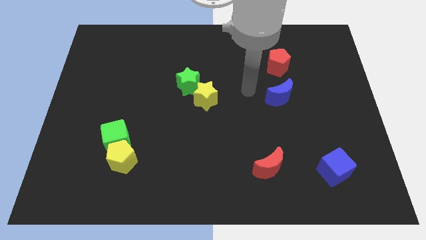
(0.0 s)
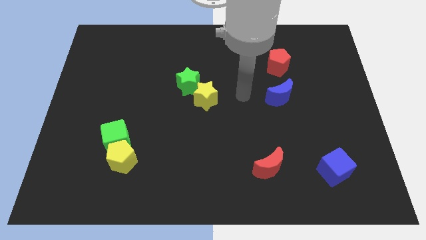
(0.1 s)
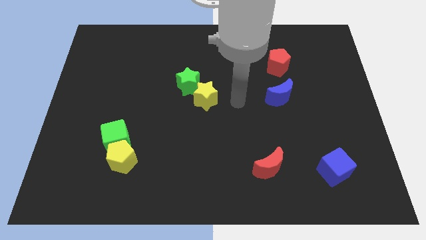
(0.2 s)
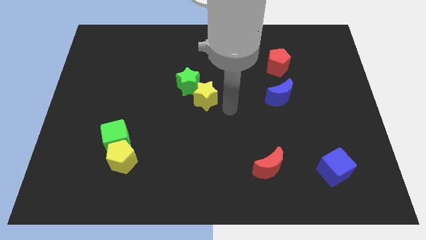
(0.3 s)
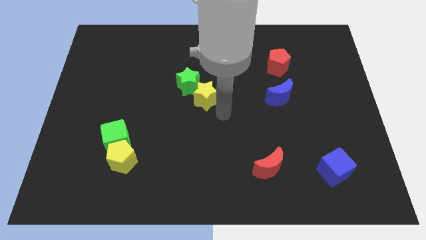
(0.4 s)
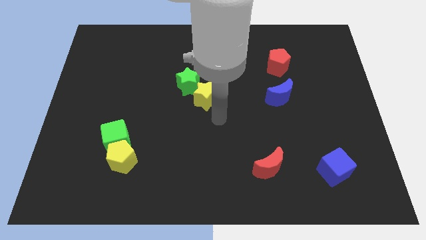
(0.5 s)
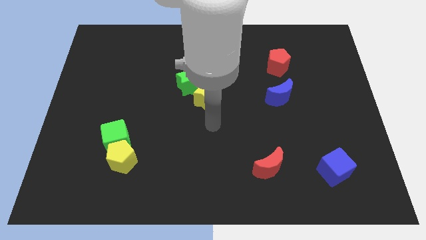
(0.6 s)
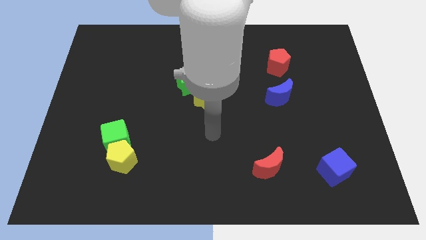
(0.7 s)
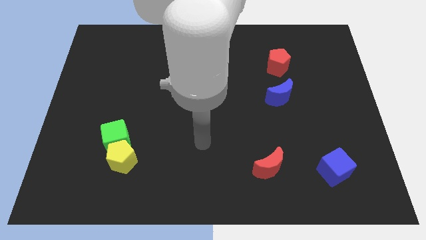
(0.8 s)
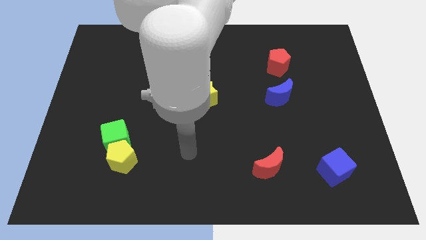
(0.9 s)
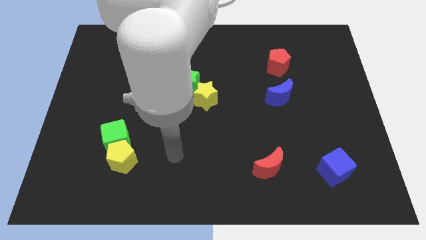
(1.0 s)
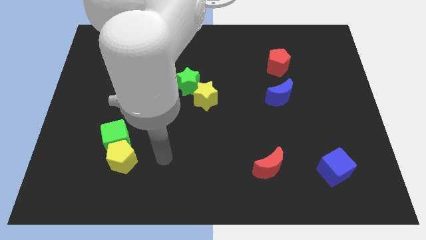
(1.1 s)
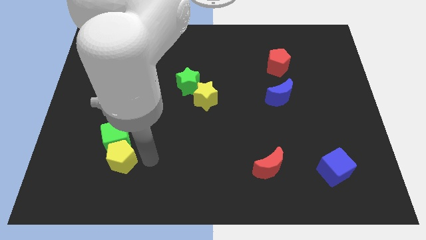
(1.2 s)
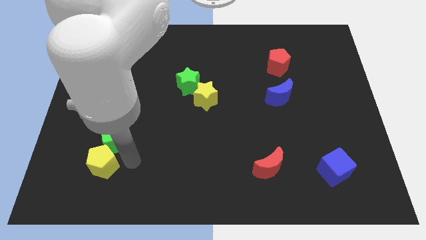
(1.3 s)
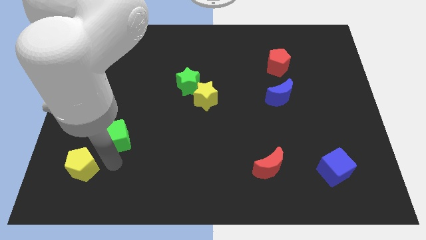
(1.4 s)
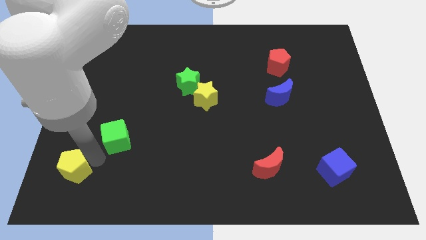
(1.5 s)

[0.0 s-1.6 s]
pull the green cube apart from the yellow pentagon

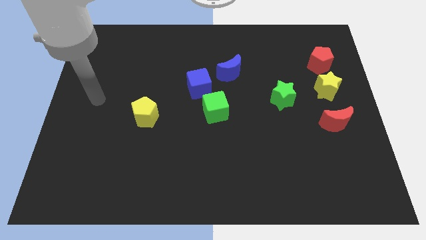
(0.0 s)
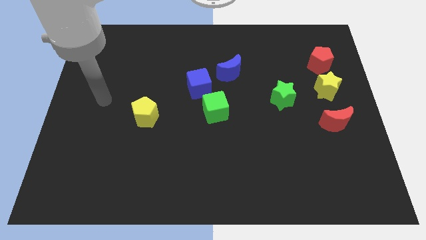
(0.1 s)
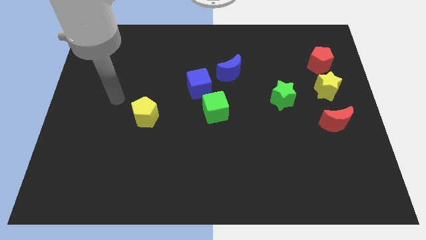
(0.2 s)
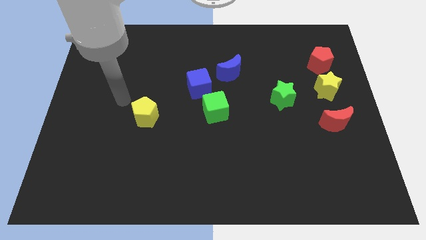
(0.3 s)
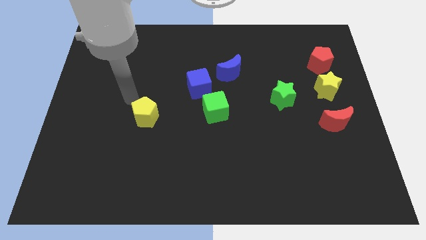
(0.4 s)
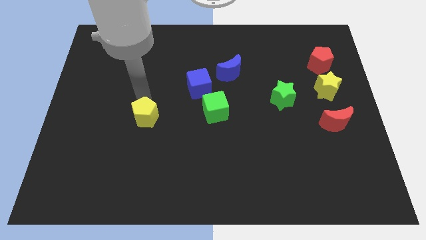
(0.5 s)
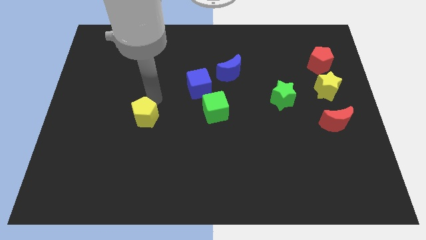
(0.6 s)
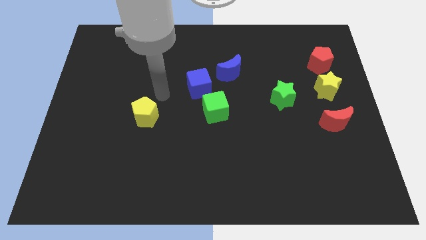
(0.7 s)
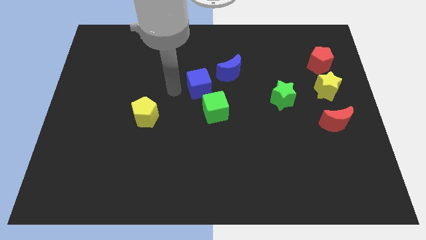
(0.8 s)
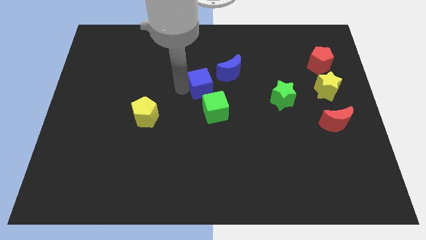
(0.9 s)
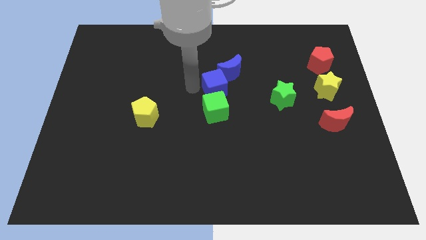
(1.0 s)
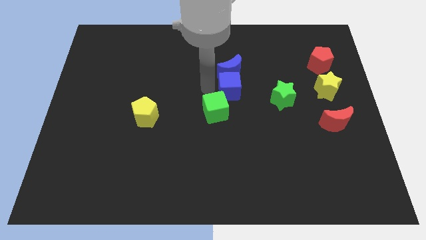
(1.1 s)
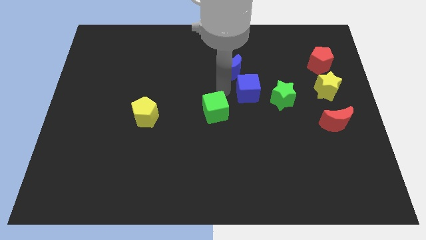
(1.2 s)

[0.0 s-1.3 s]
separate the green cube from the blue cube

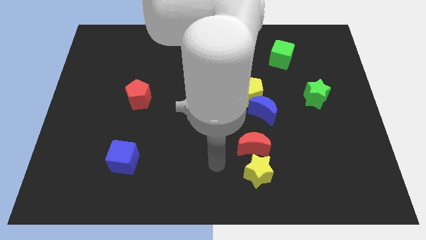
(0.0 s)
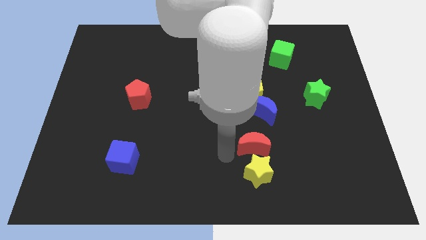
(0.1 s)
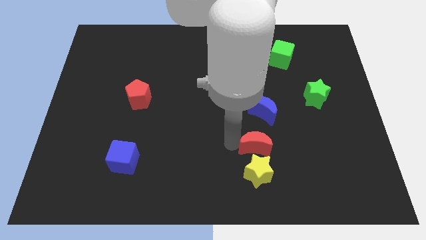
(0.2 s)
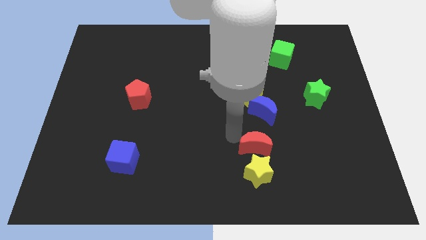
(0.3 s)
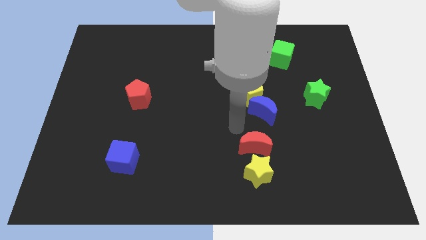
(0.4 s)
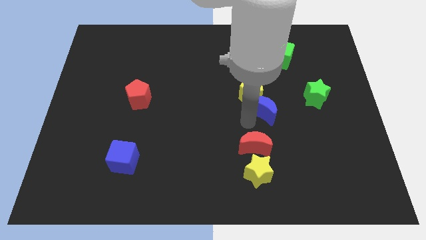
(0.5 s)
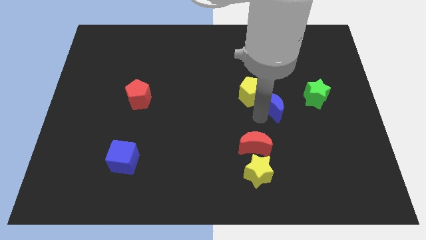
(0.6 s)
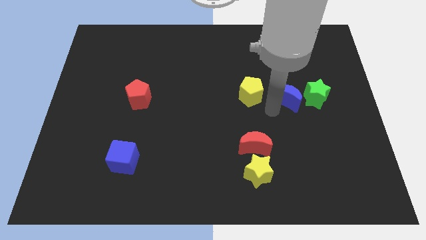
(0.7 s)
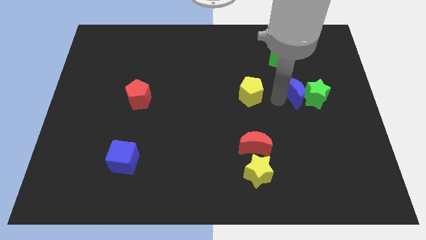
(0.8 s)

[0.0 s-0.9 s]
separate the yellow pentagon from the blue moon

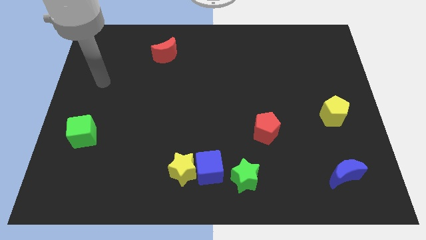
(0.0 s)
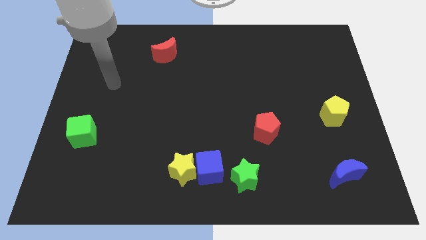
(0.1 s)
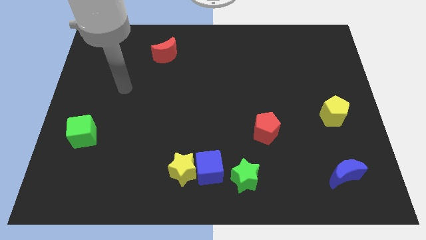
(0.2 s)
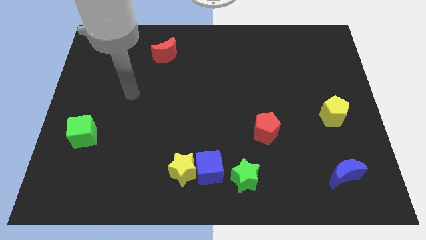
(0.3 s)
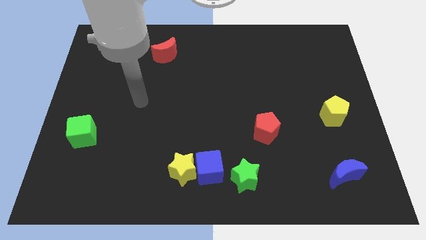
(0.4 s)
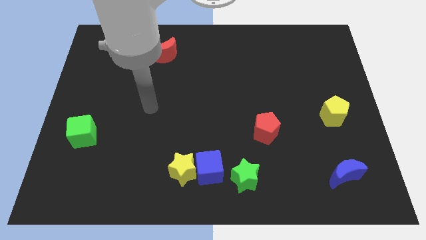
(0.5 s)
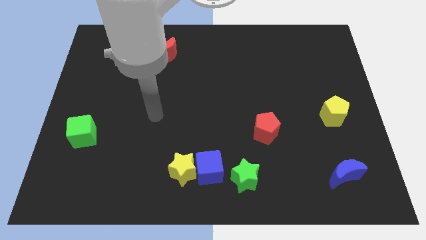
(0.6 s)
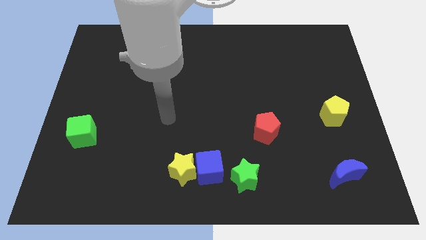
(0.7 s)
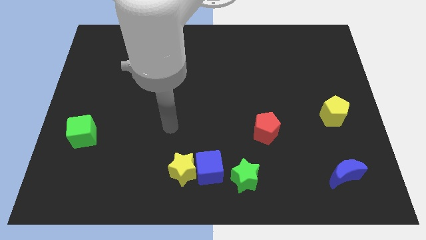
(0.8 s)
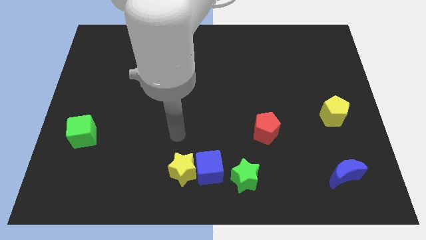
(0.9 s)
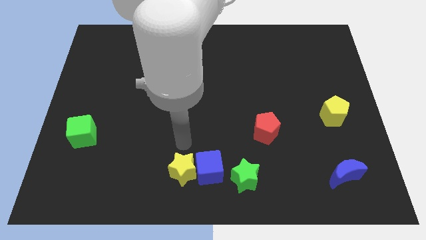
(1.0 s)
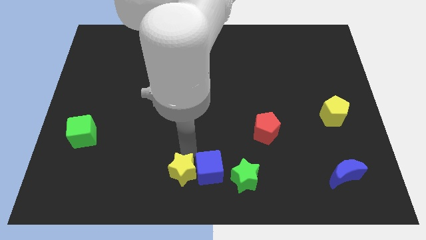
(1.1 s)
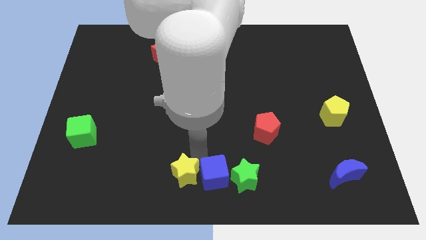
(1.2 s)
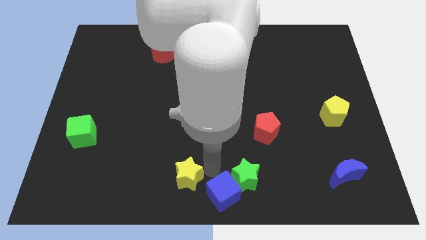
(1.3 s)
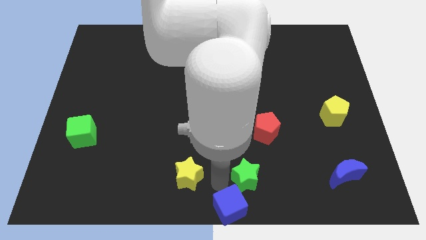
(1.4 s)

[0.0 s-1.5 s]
move the yellow star away from the blue cube

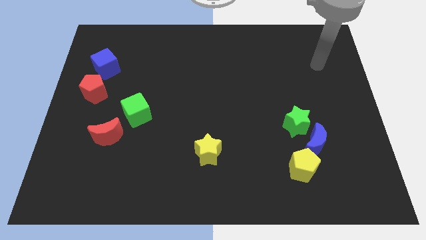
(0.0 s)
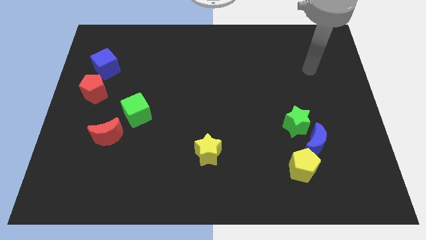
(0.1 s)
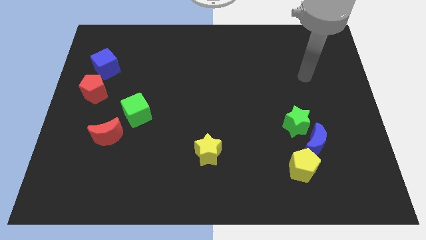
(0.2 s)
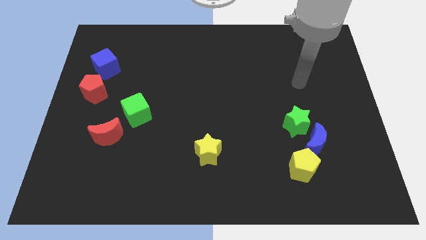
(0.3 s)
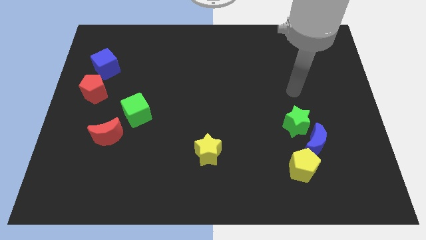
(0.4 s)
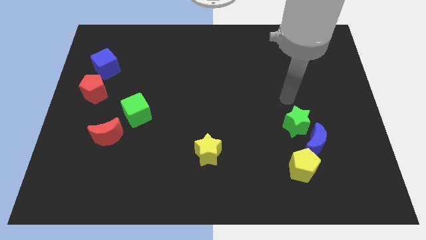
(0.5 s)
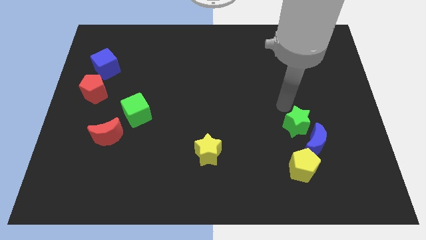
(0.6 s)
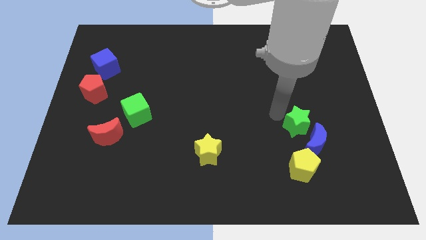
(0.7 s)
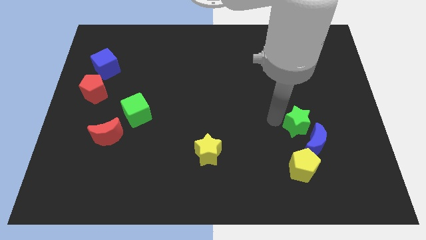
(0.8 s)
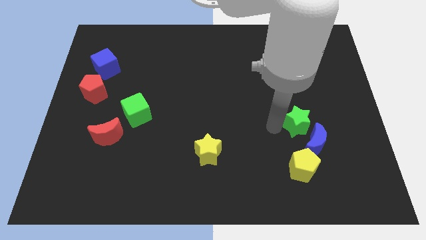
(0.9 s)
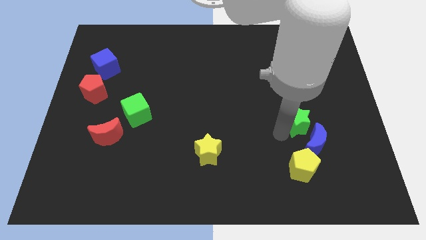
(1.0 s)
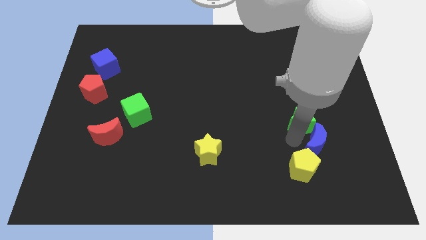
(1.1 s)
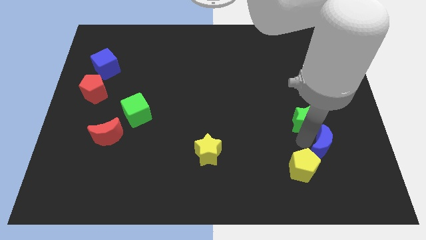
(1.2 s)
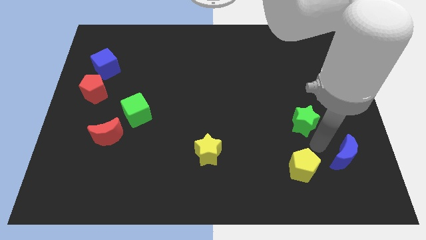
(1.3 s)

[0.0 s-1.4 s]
separate the green star from the blue moon

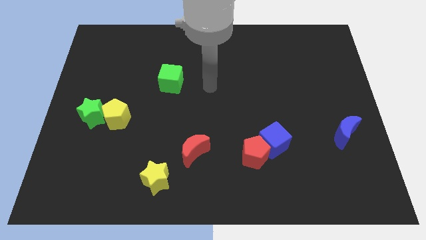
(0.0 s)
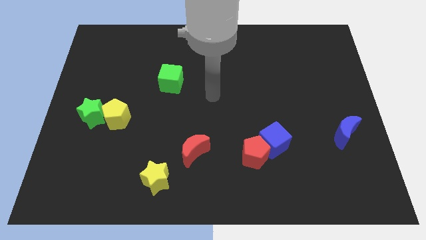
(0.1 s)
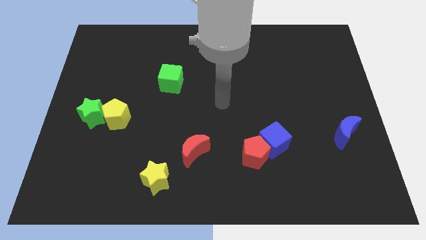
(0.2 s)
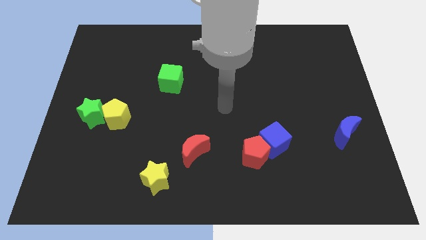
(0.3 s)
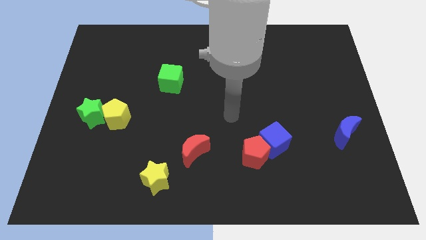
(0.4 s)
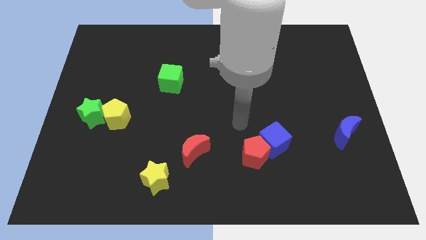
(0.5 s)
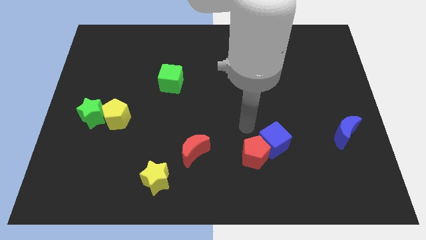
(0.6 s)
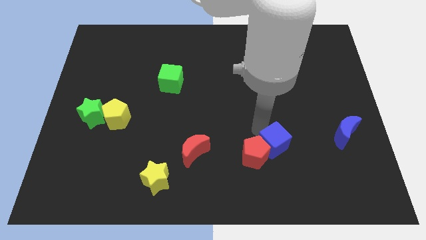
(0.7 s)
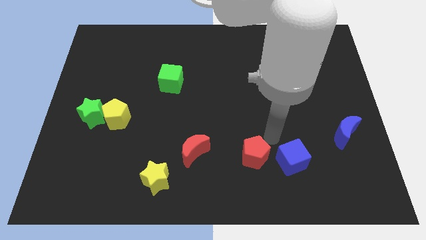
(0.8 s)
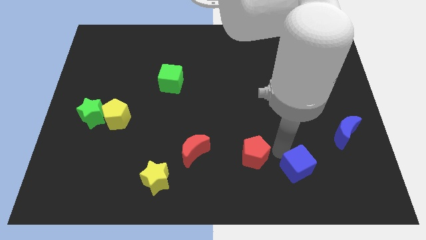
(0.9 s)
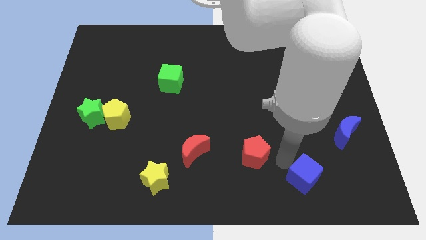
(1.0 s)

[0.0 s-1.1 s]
separate the red pentagon from the blue cube

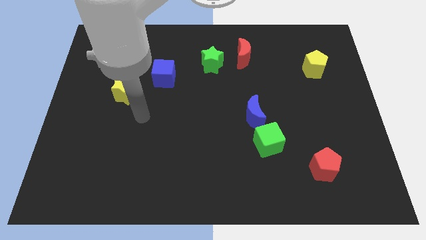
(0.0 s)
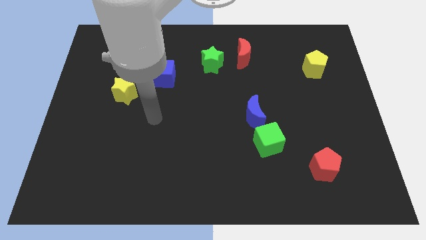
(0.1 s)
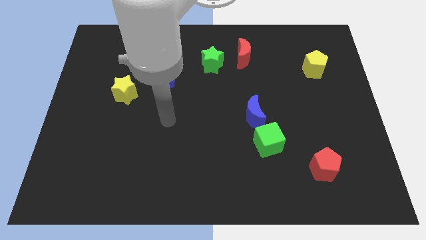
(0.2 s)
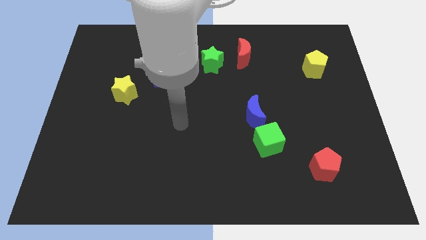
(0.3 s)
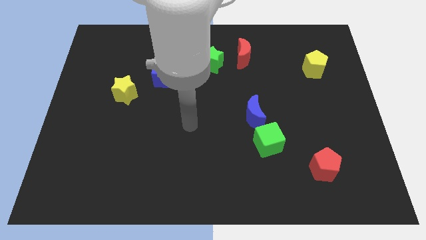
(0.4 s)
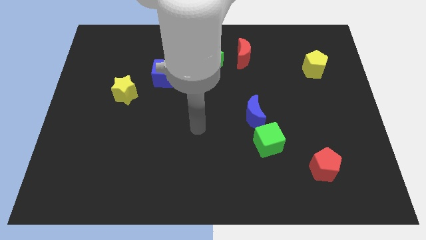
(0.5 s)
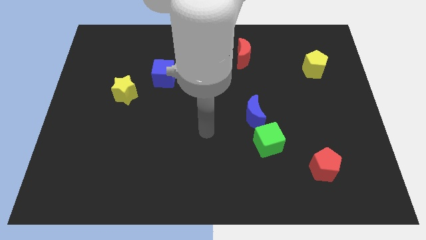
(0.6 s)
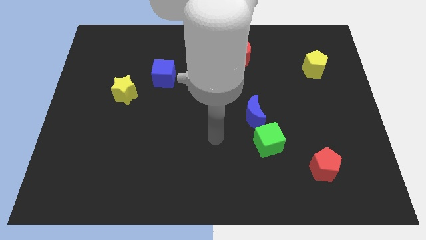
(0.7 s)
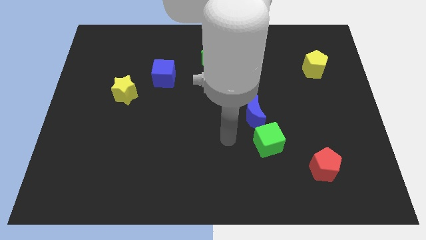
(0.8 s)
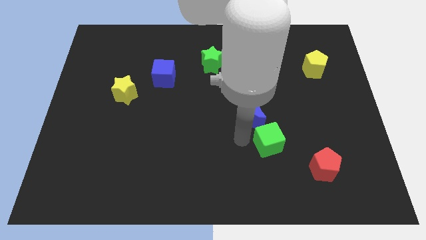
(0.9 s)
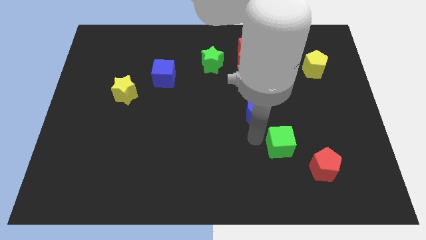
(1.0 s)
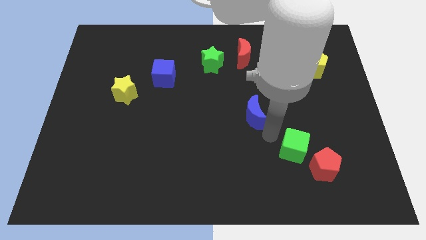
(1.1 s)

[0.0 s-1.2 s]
move the blue moon away from the green cube
